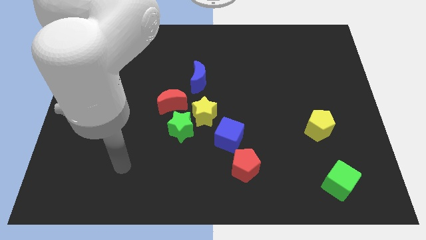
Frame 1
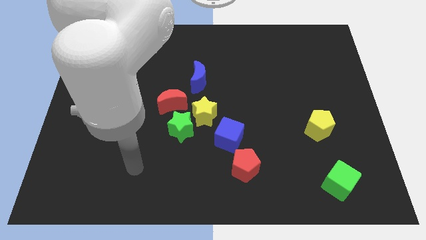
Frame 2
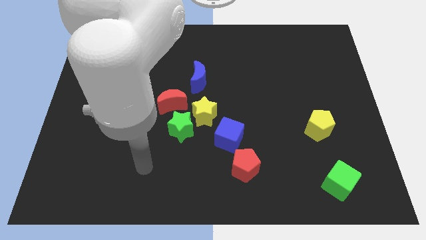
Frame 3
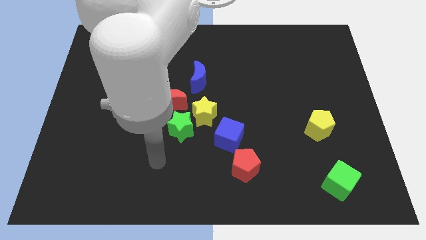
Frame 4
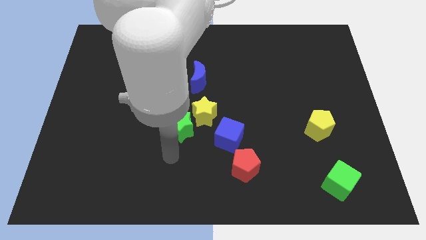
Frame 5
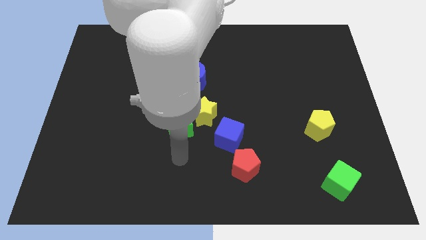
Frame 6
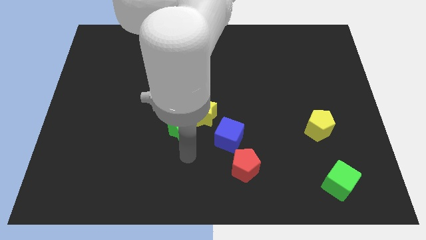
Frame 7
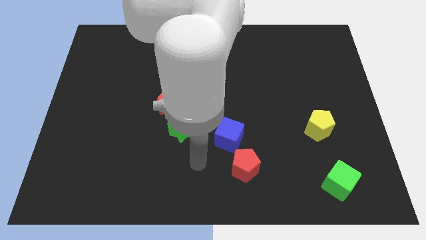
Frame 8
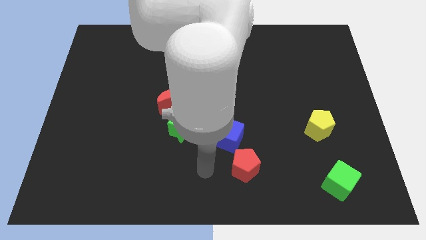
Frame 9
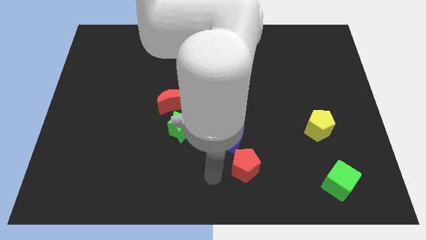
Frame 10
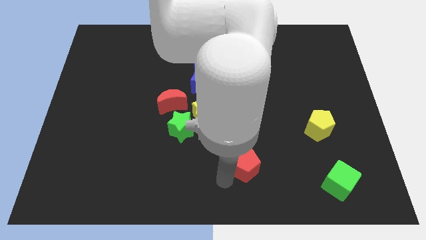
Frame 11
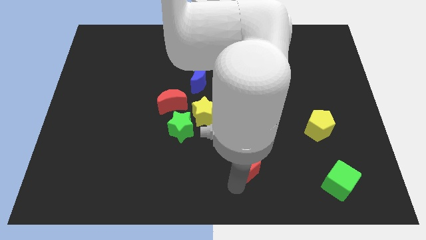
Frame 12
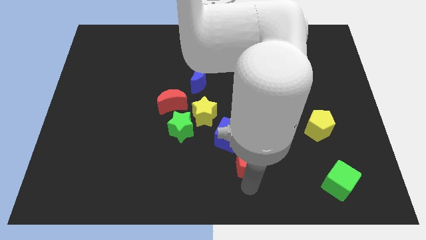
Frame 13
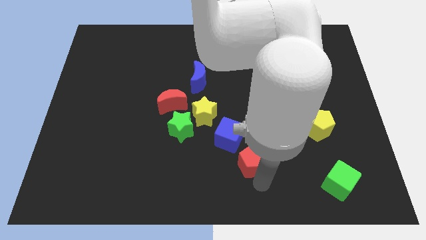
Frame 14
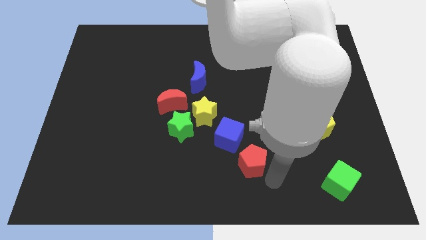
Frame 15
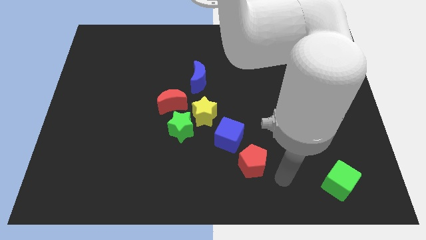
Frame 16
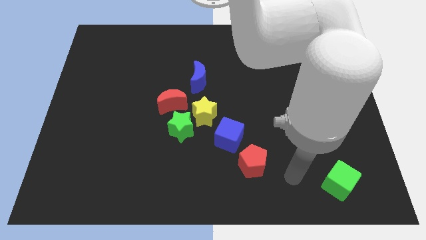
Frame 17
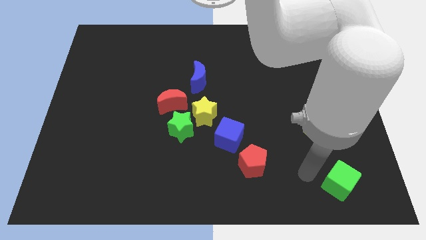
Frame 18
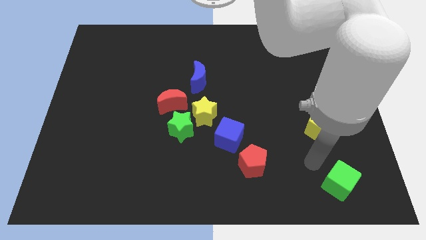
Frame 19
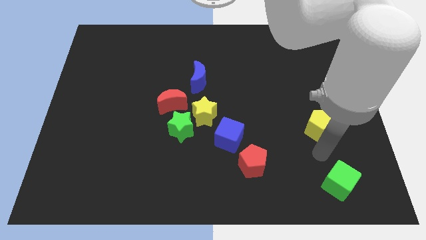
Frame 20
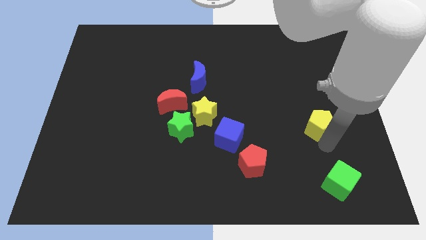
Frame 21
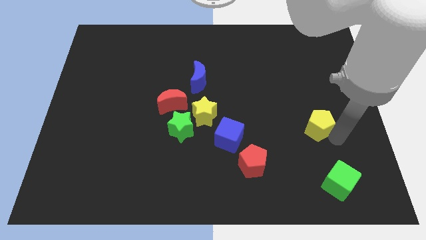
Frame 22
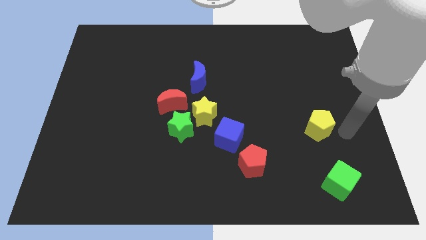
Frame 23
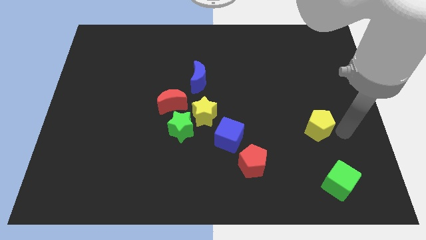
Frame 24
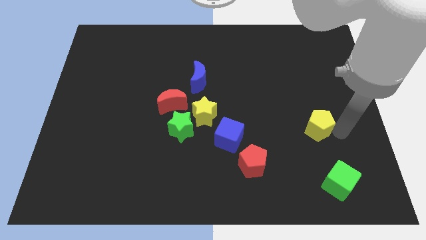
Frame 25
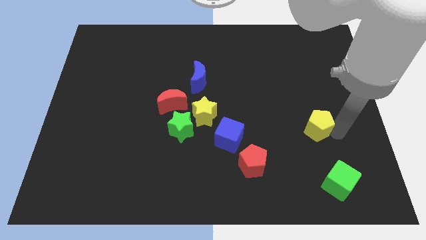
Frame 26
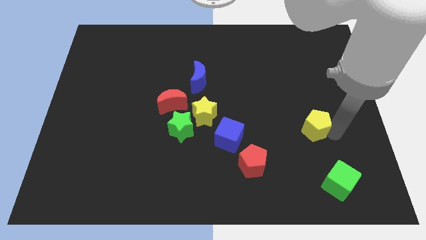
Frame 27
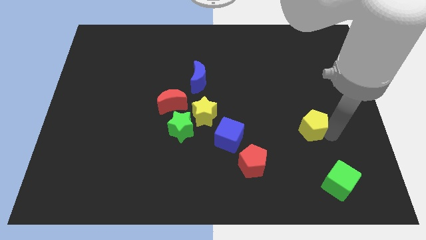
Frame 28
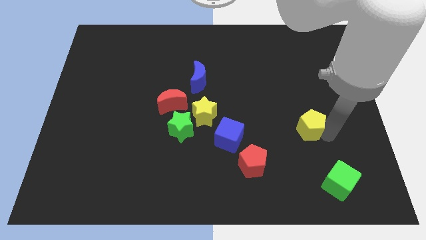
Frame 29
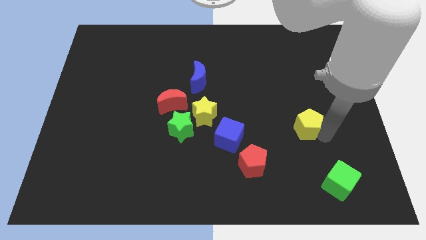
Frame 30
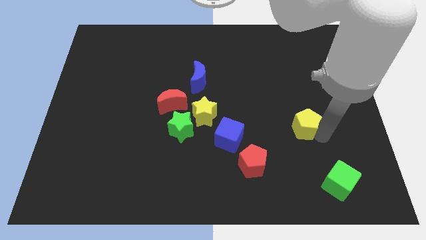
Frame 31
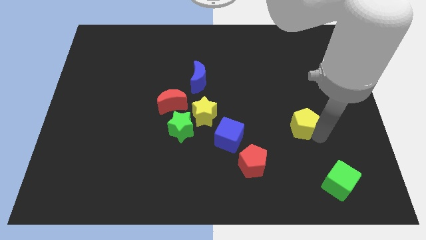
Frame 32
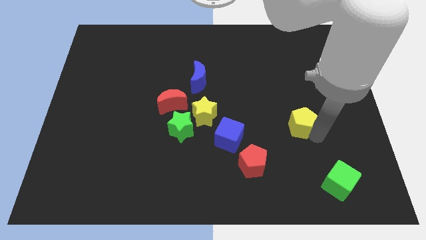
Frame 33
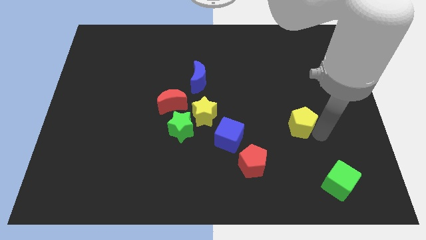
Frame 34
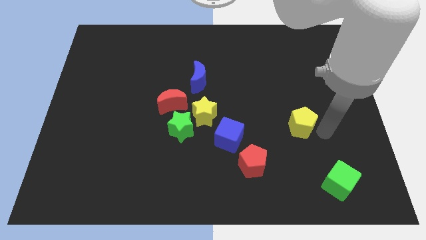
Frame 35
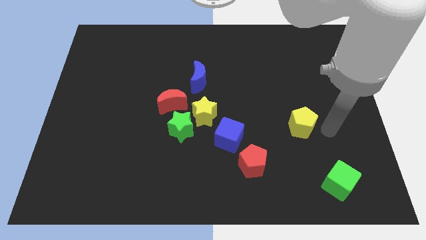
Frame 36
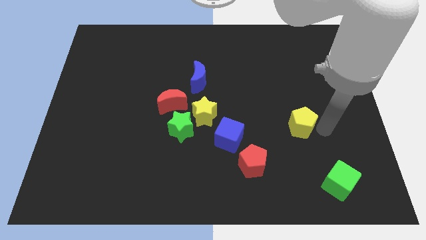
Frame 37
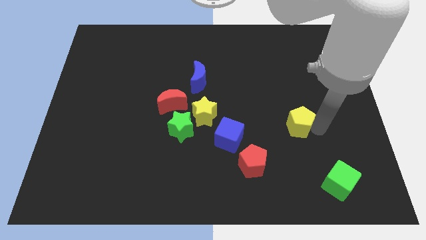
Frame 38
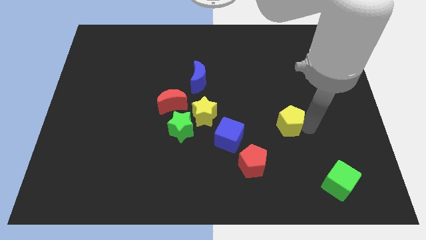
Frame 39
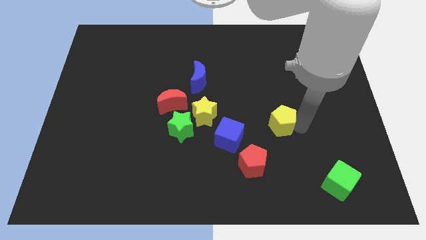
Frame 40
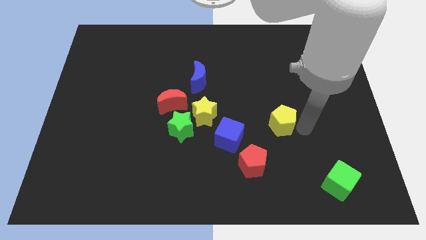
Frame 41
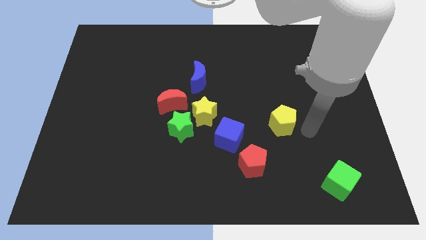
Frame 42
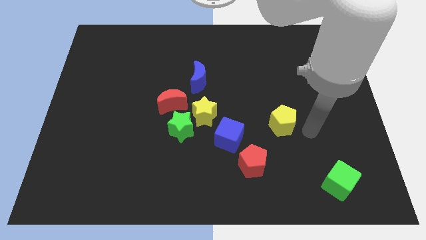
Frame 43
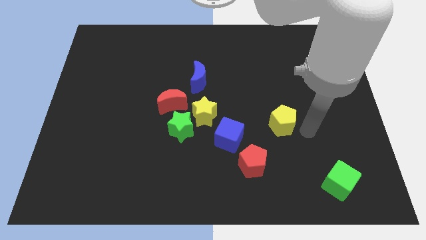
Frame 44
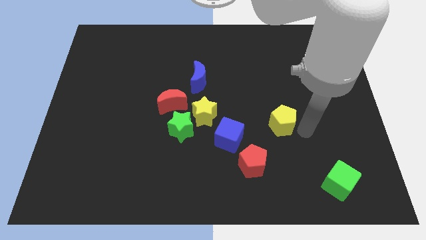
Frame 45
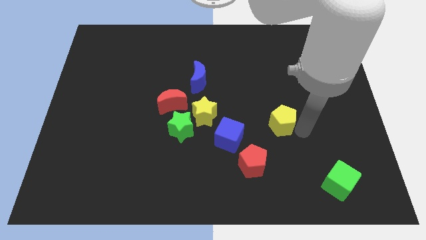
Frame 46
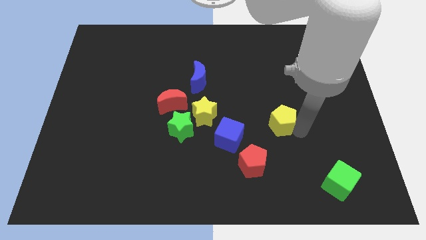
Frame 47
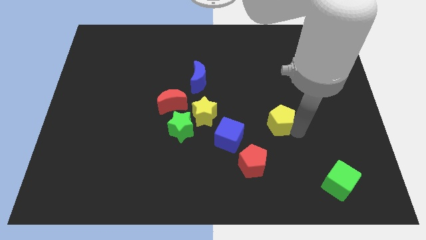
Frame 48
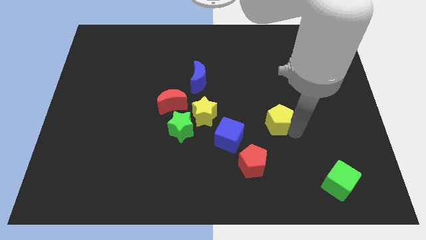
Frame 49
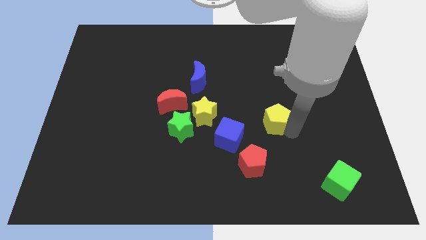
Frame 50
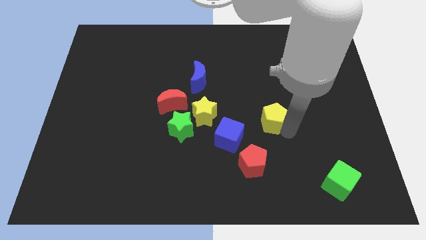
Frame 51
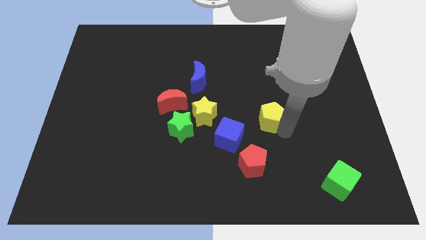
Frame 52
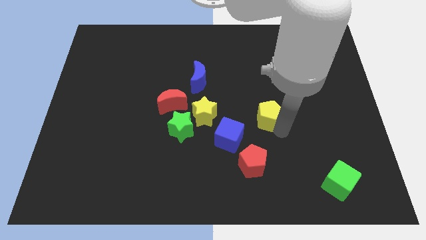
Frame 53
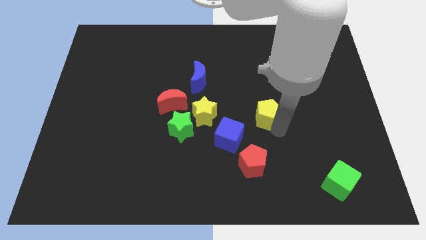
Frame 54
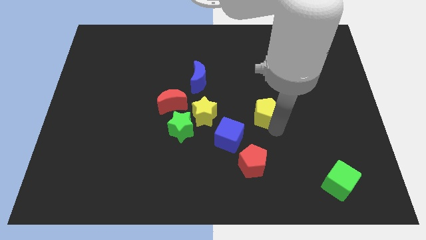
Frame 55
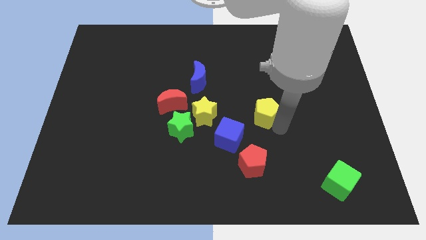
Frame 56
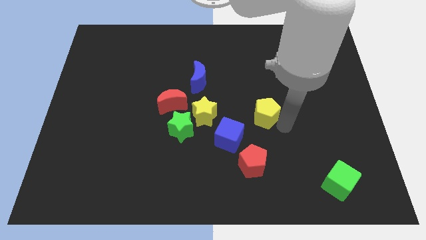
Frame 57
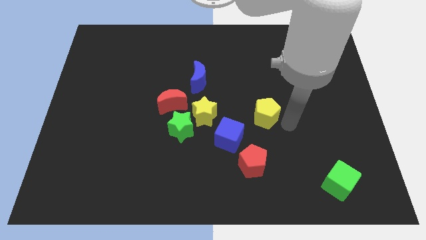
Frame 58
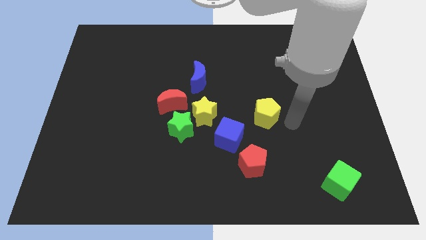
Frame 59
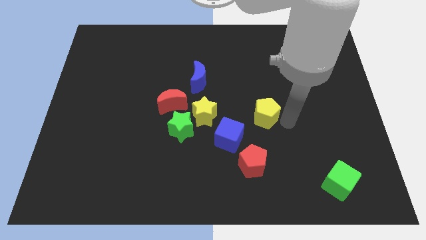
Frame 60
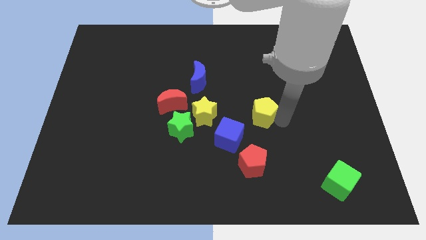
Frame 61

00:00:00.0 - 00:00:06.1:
push the yellow pentagon to the middle of the board

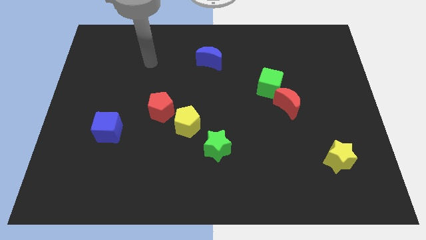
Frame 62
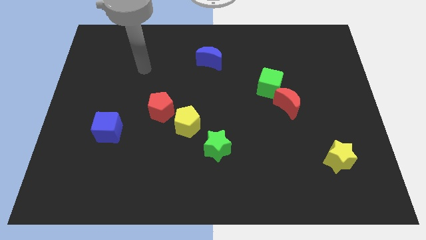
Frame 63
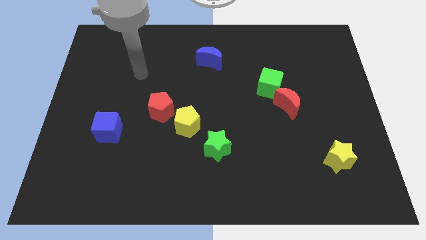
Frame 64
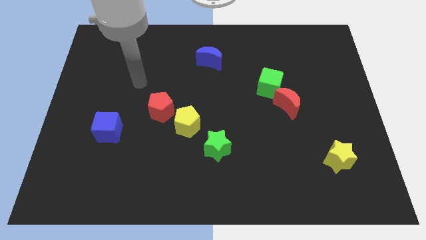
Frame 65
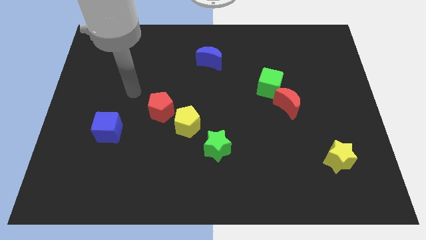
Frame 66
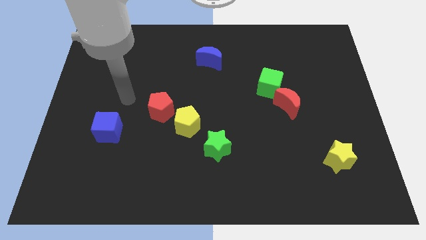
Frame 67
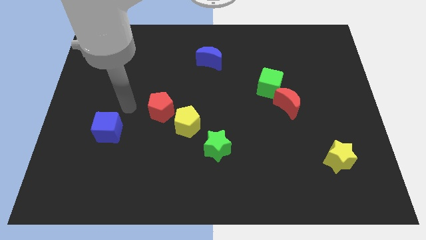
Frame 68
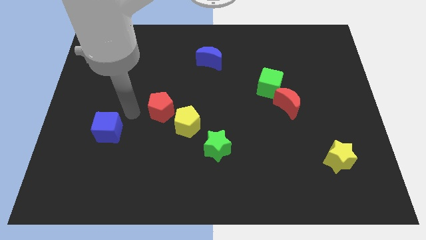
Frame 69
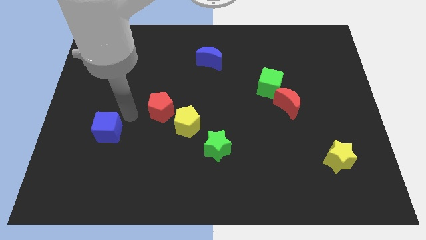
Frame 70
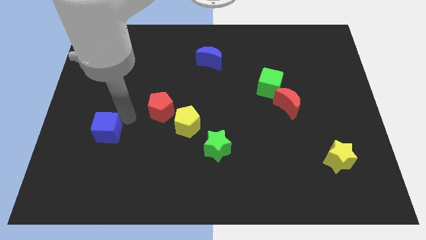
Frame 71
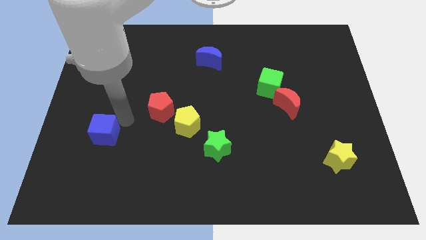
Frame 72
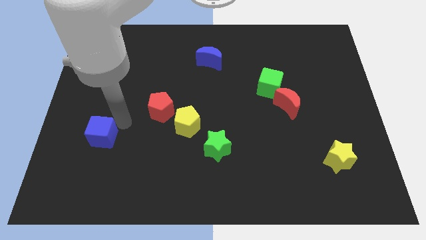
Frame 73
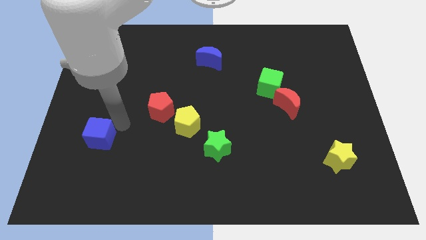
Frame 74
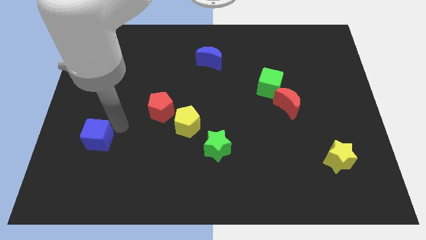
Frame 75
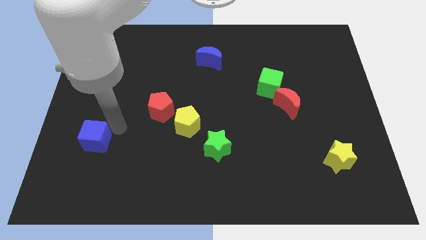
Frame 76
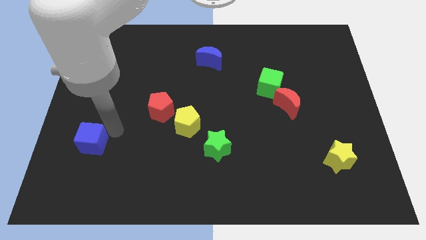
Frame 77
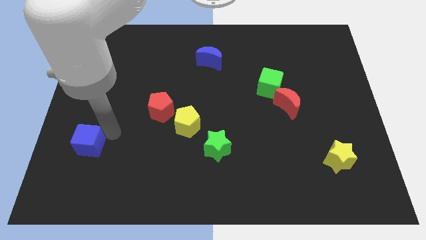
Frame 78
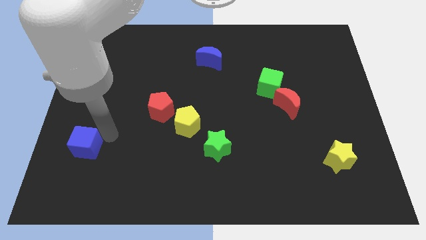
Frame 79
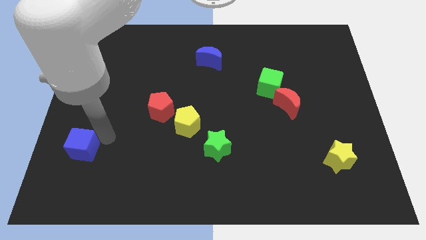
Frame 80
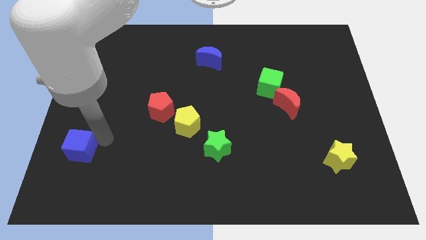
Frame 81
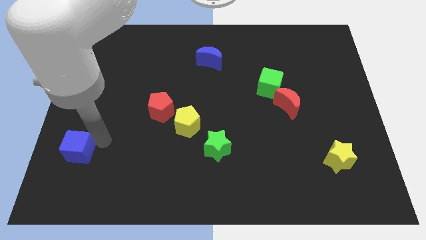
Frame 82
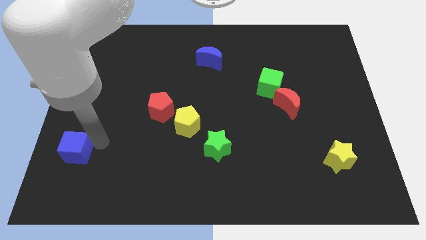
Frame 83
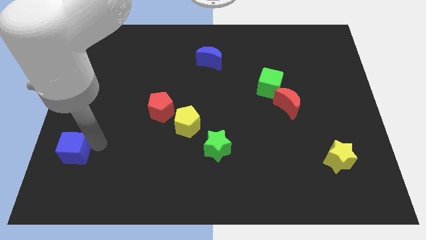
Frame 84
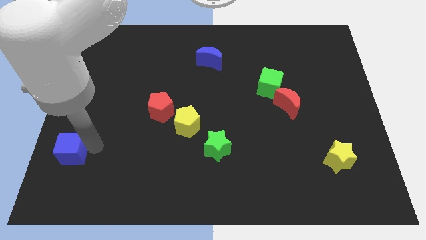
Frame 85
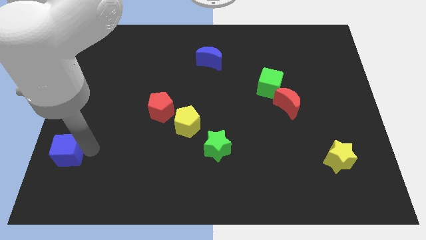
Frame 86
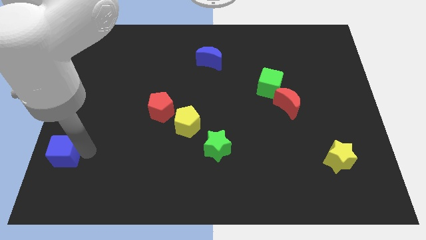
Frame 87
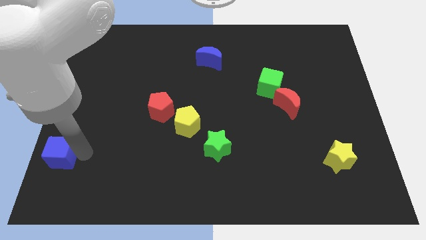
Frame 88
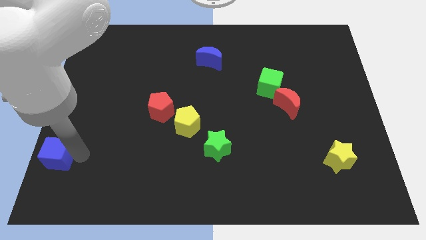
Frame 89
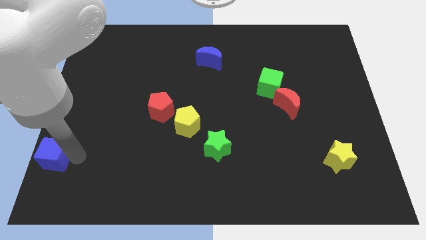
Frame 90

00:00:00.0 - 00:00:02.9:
slide the blue cube to the bottom left of the board
